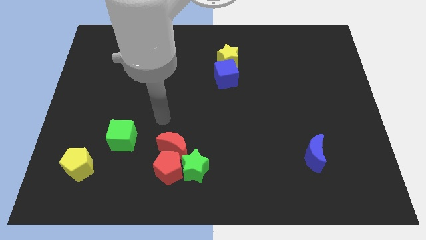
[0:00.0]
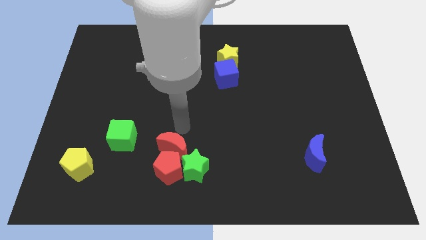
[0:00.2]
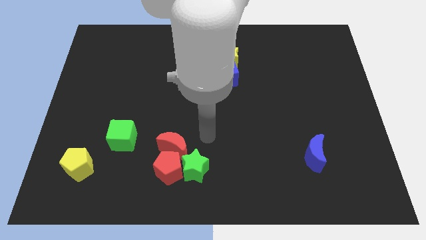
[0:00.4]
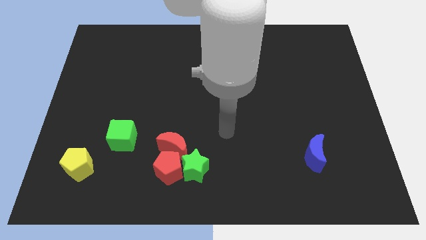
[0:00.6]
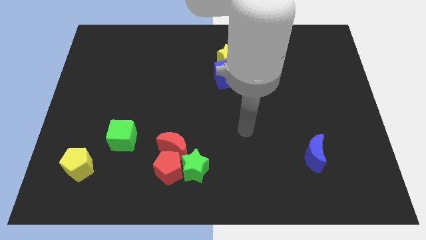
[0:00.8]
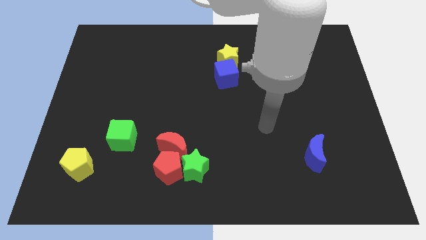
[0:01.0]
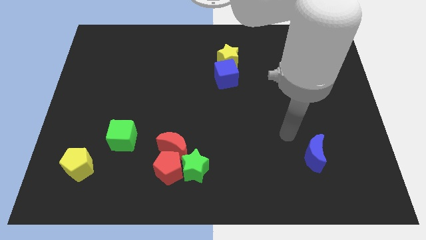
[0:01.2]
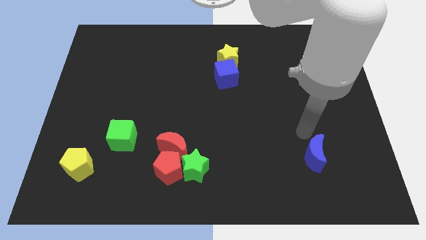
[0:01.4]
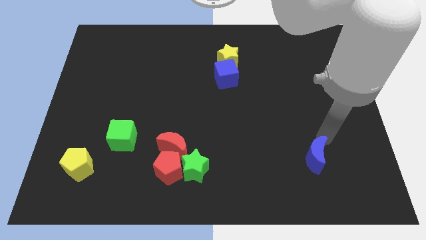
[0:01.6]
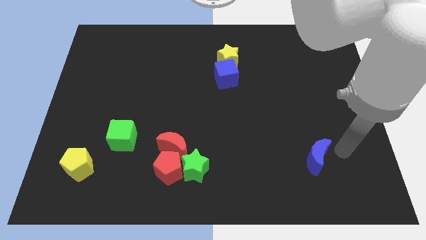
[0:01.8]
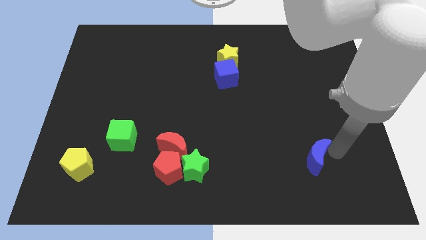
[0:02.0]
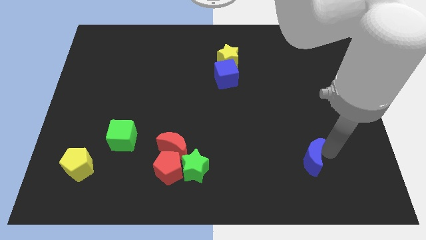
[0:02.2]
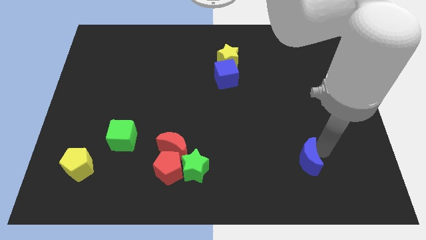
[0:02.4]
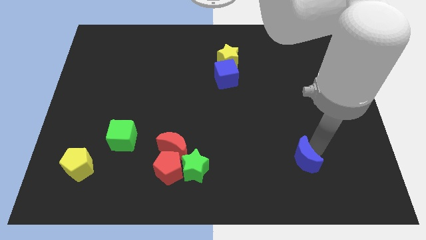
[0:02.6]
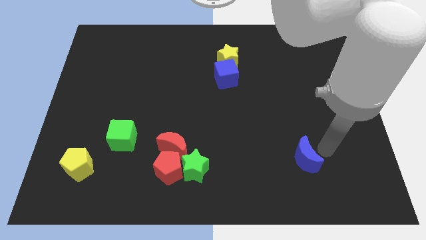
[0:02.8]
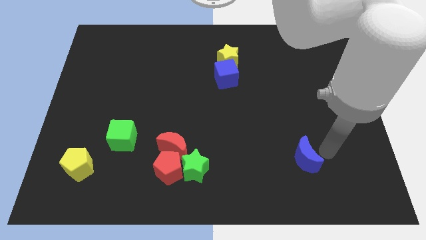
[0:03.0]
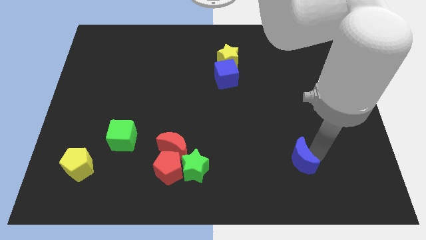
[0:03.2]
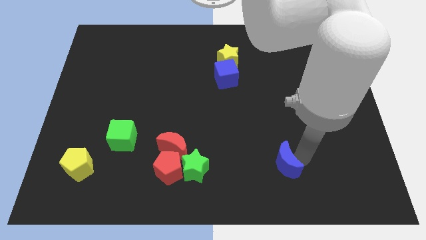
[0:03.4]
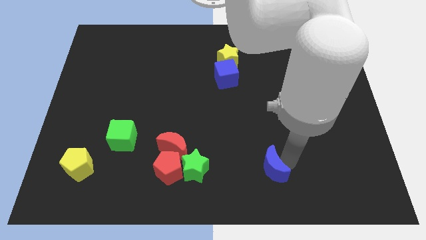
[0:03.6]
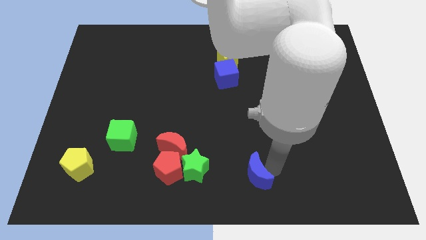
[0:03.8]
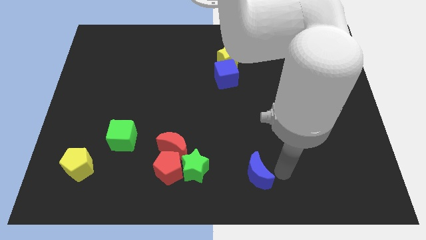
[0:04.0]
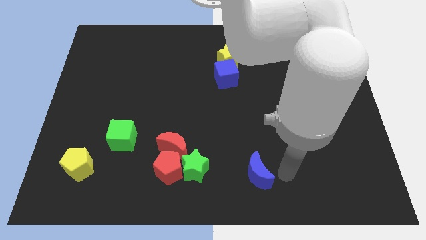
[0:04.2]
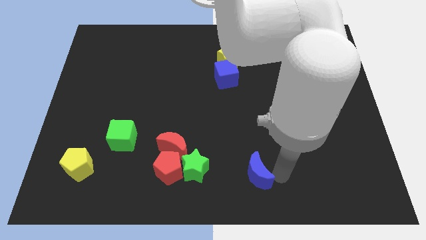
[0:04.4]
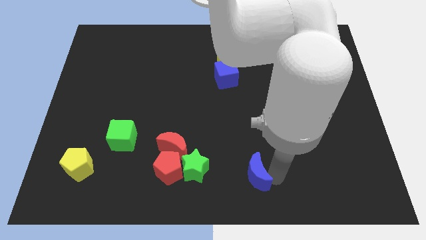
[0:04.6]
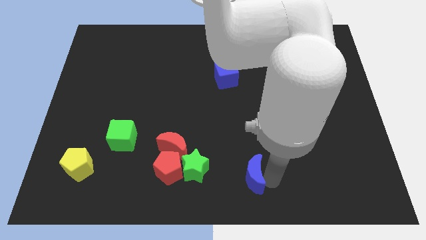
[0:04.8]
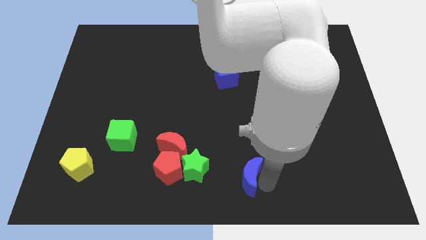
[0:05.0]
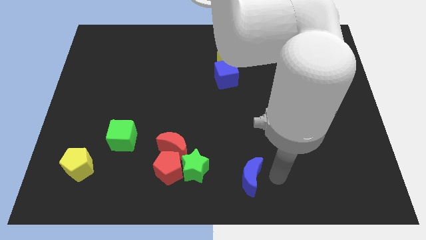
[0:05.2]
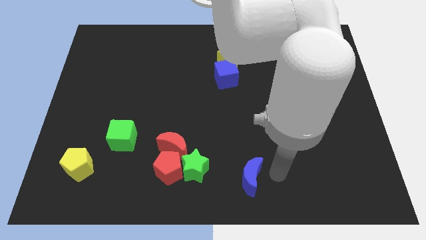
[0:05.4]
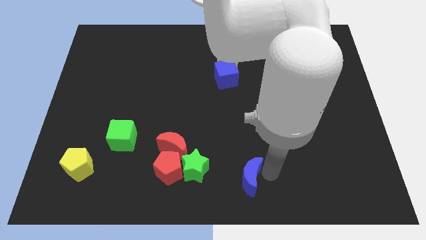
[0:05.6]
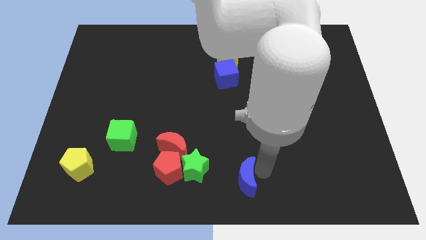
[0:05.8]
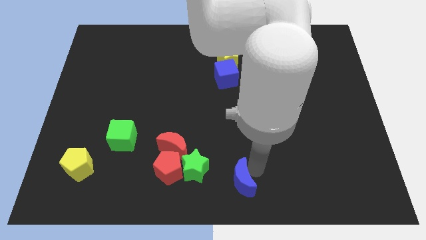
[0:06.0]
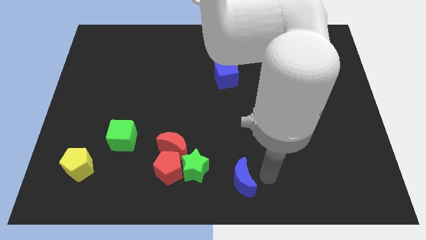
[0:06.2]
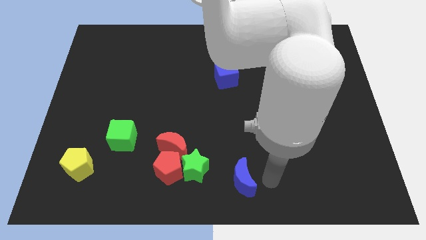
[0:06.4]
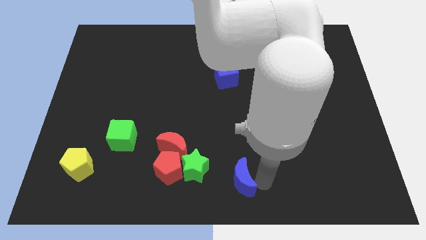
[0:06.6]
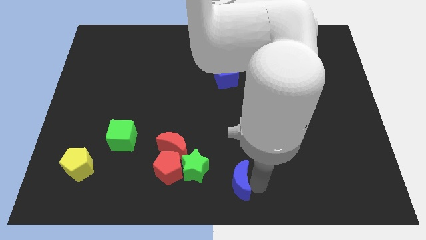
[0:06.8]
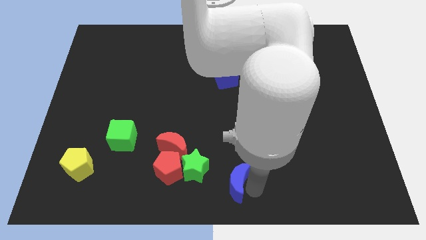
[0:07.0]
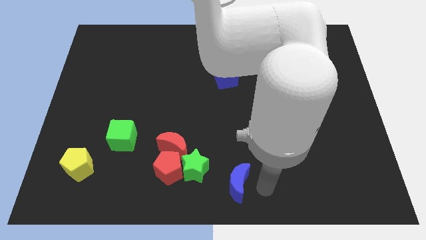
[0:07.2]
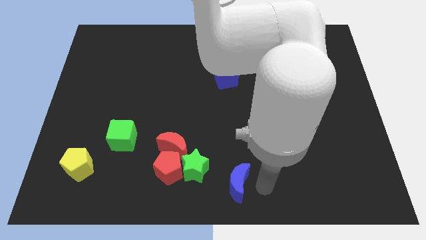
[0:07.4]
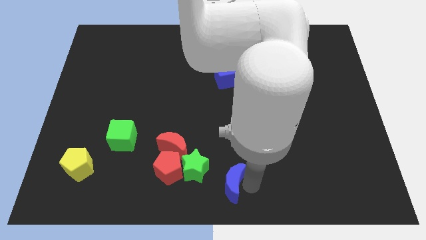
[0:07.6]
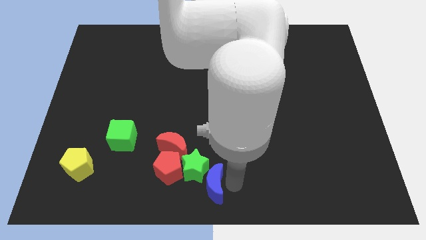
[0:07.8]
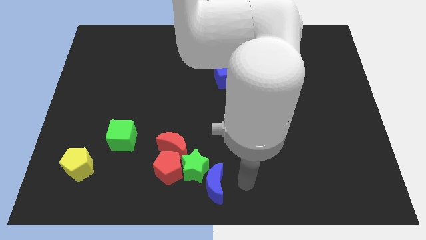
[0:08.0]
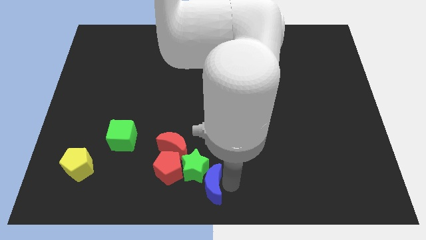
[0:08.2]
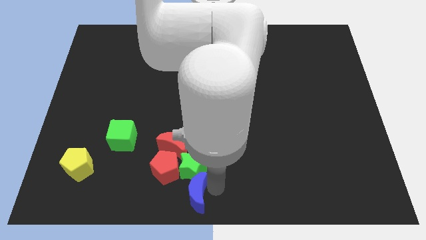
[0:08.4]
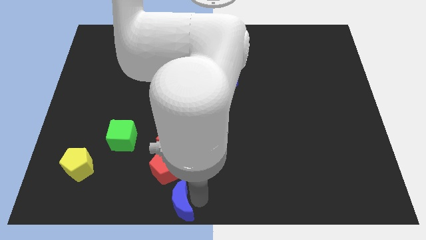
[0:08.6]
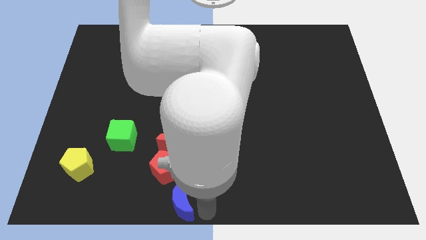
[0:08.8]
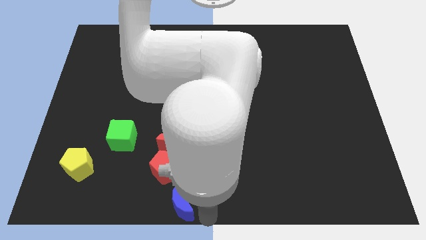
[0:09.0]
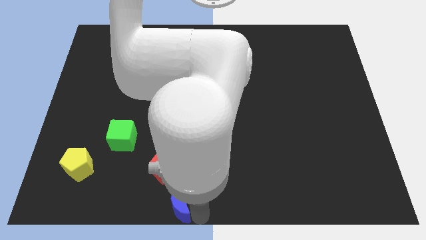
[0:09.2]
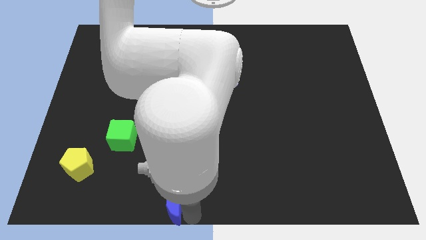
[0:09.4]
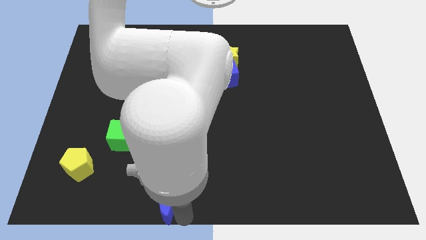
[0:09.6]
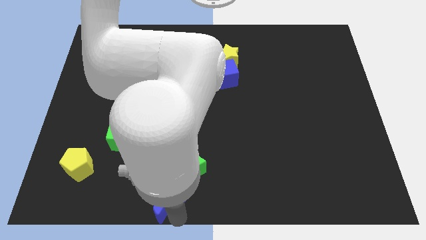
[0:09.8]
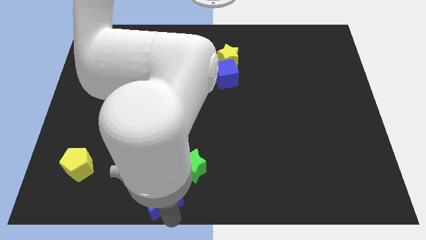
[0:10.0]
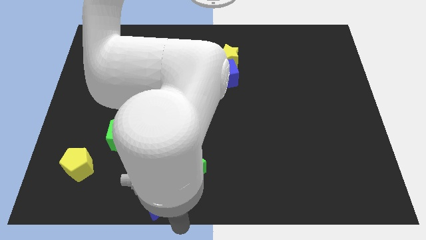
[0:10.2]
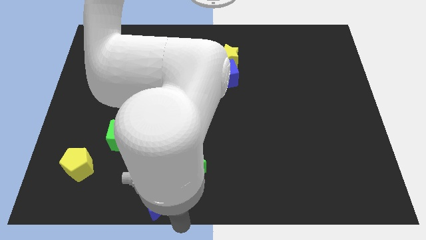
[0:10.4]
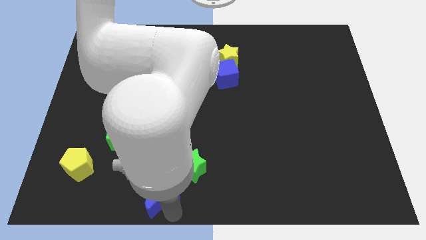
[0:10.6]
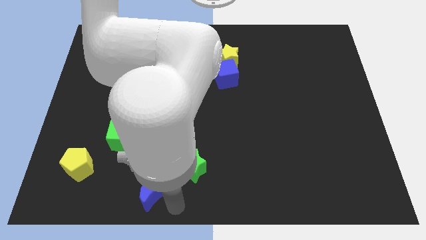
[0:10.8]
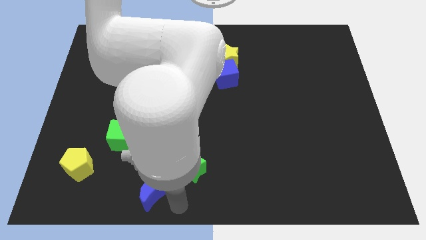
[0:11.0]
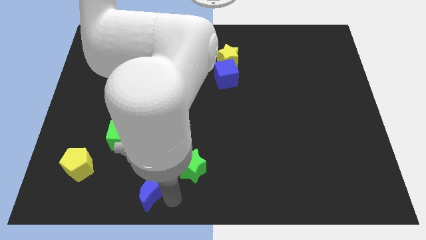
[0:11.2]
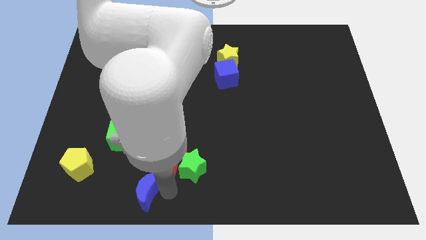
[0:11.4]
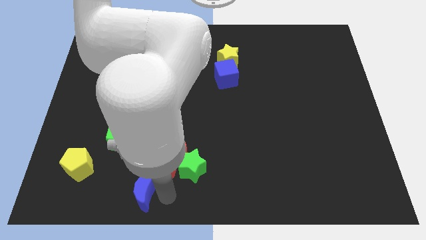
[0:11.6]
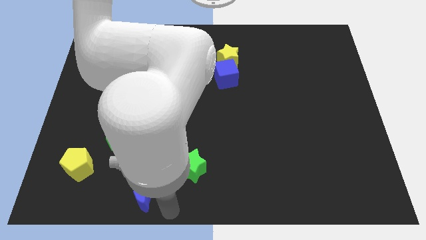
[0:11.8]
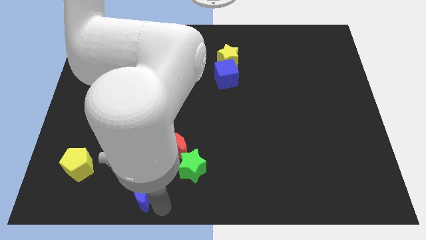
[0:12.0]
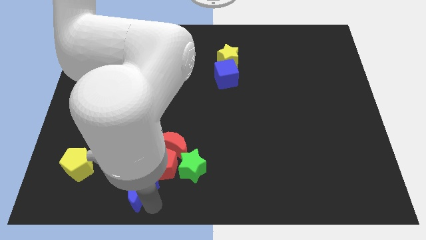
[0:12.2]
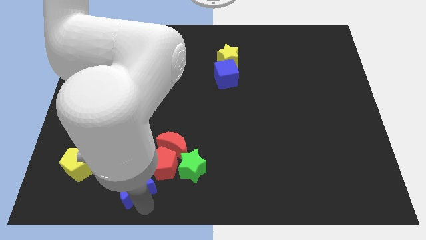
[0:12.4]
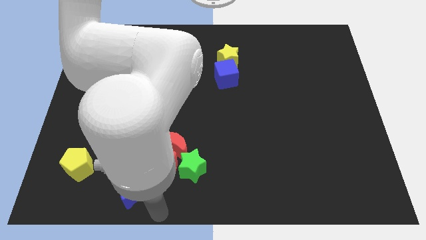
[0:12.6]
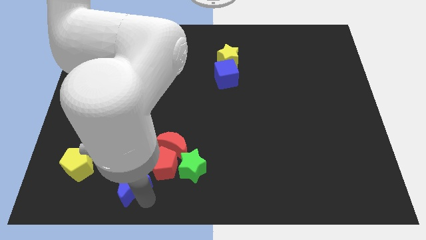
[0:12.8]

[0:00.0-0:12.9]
put the blue moon to the left of the red pentagon

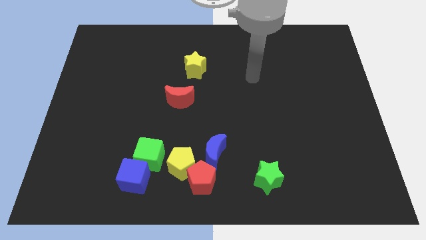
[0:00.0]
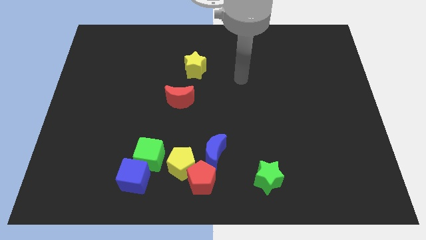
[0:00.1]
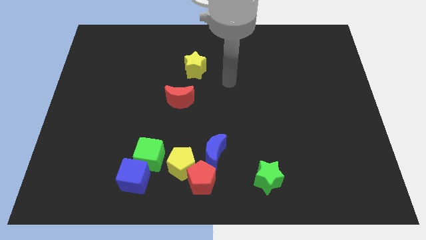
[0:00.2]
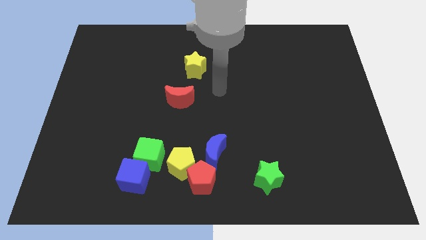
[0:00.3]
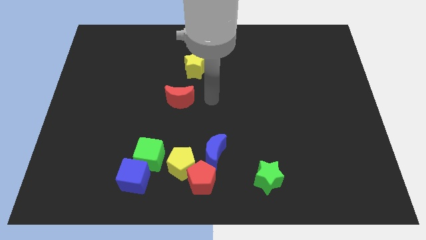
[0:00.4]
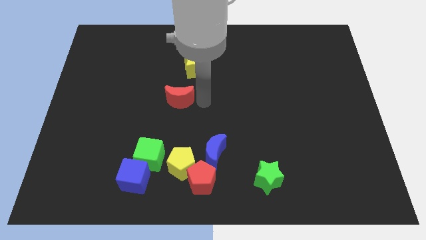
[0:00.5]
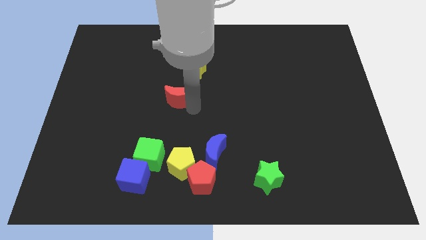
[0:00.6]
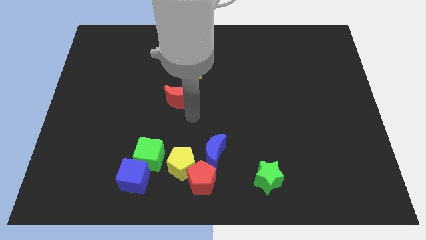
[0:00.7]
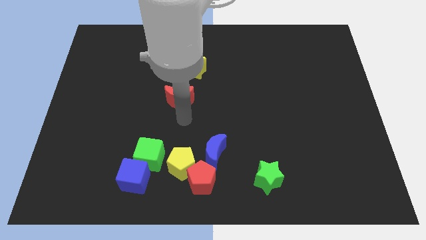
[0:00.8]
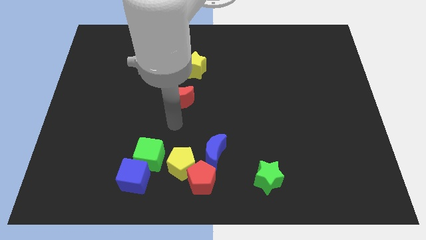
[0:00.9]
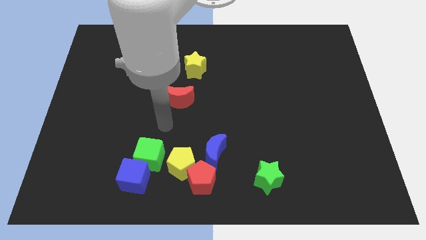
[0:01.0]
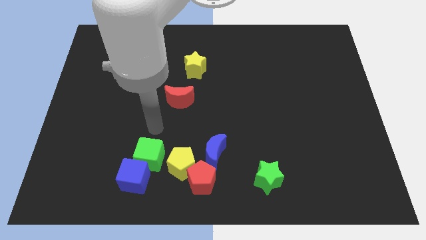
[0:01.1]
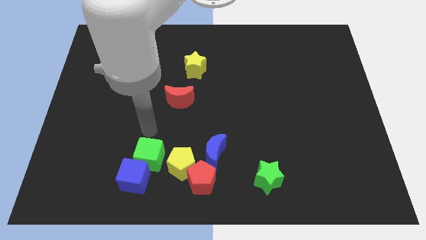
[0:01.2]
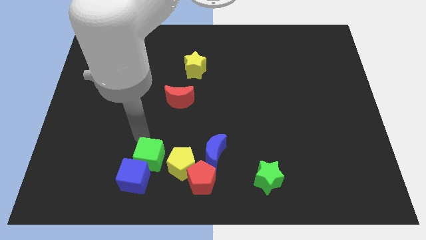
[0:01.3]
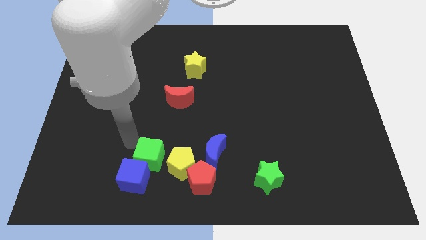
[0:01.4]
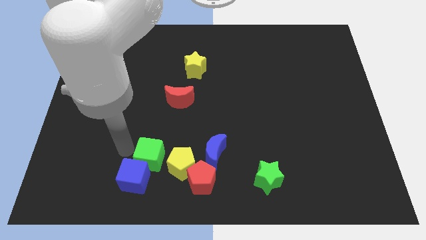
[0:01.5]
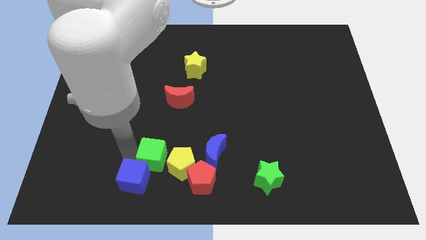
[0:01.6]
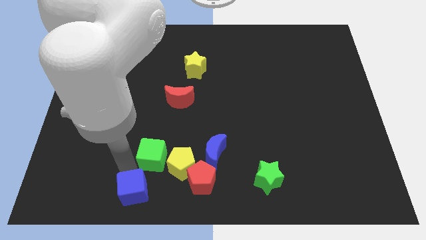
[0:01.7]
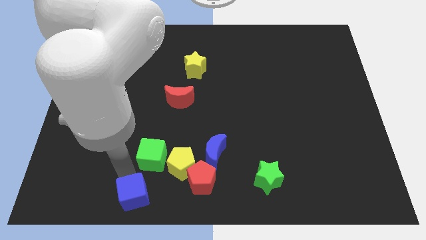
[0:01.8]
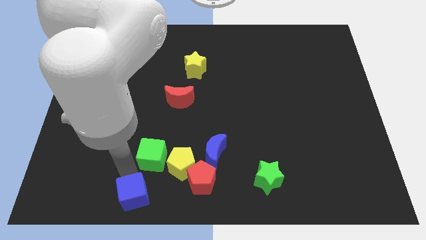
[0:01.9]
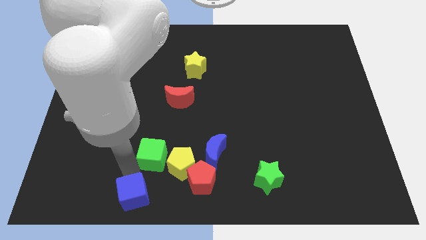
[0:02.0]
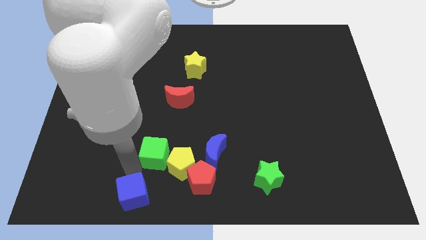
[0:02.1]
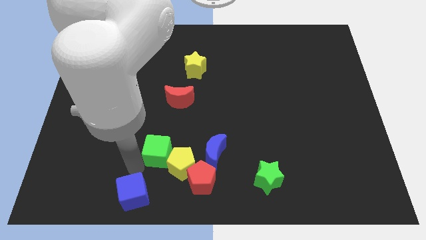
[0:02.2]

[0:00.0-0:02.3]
push the green cube below the red moon
